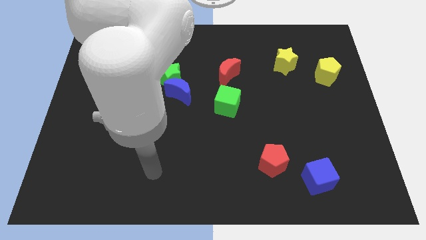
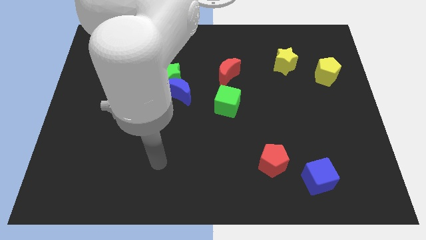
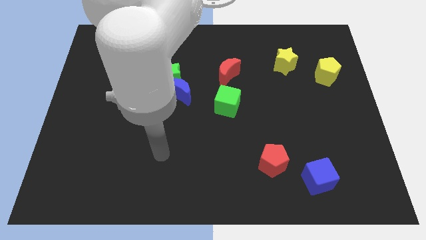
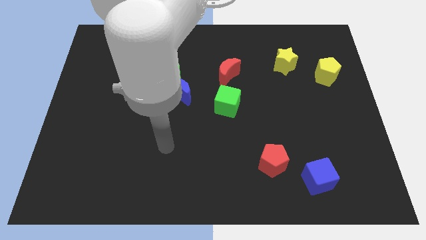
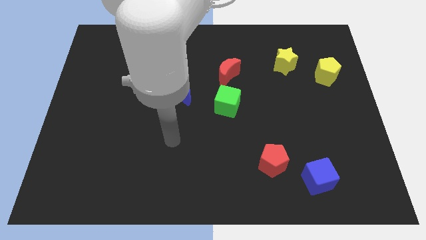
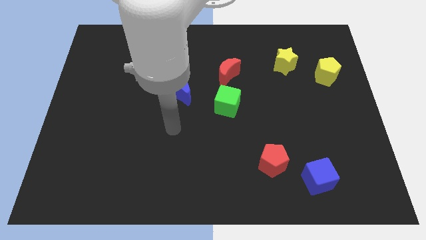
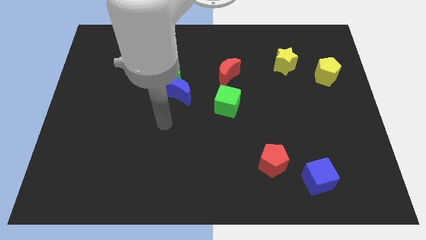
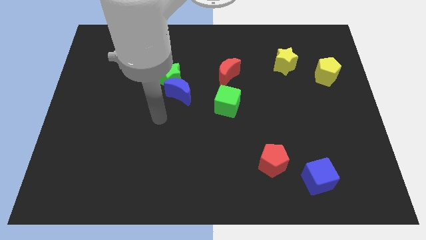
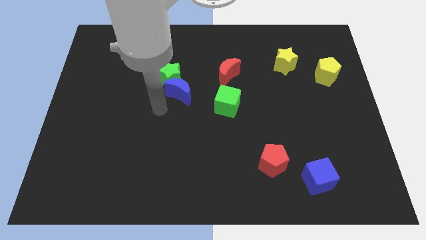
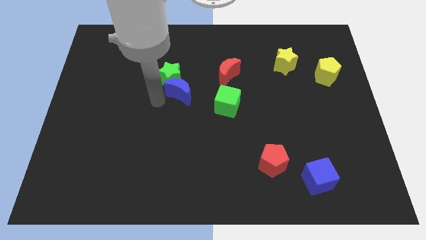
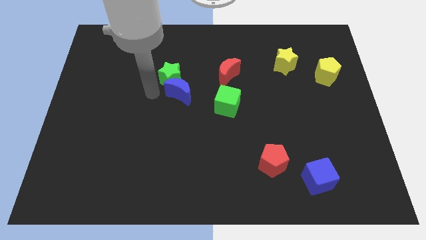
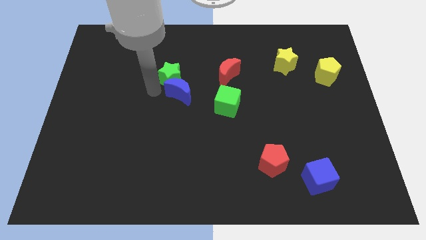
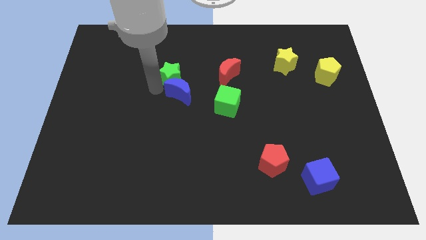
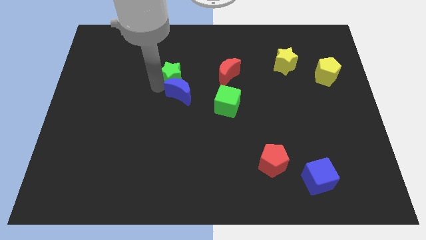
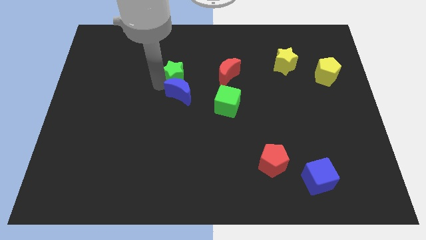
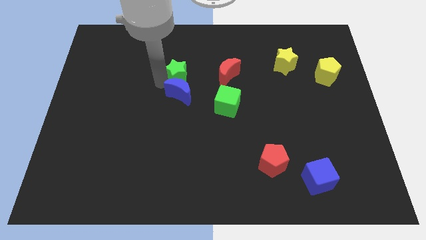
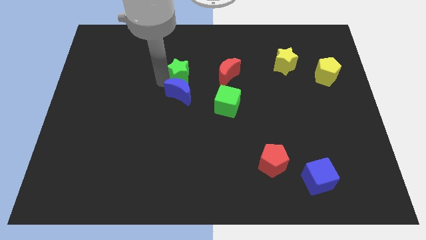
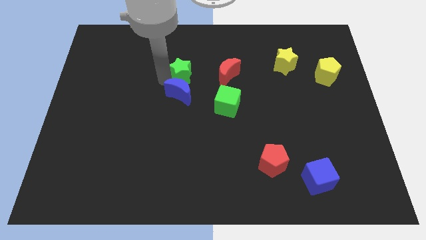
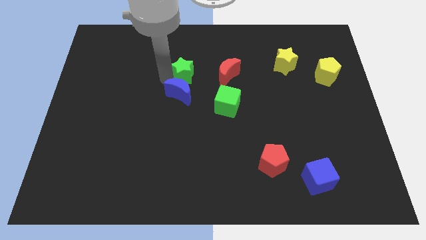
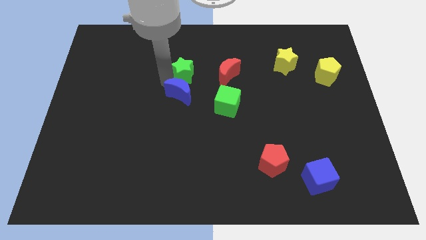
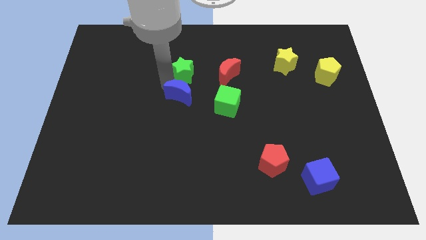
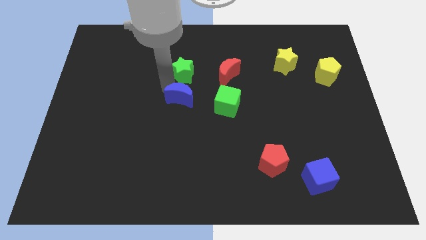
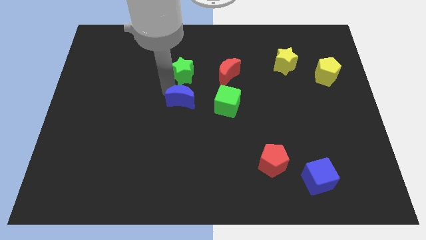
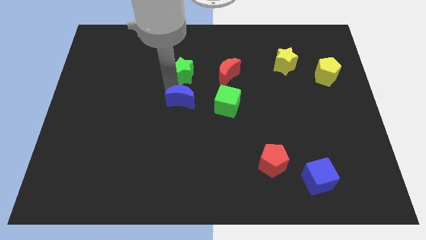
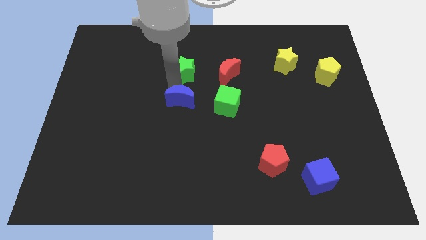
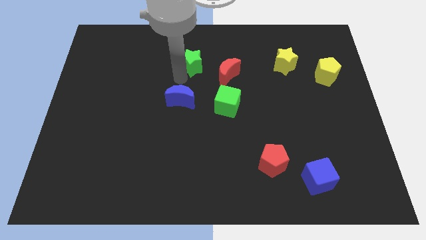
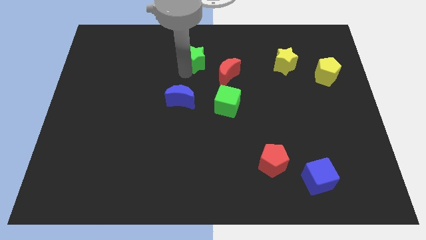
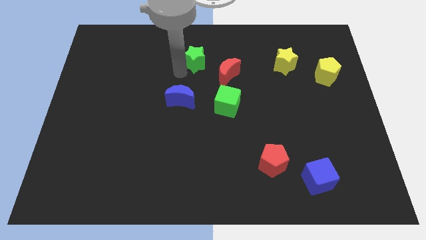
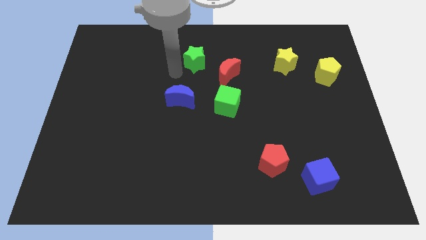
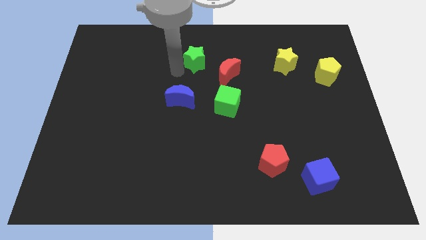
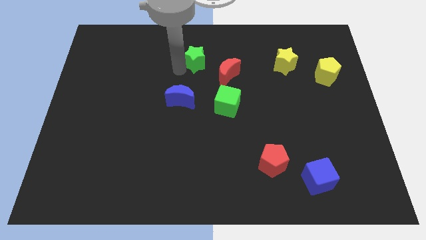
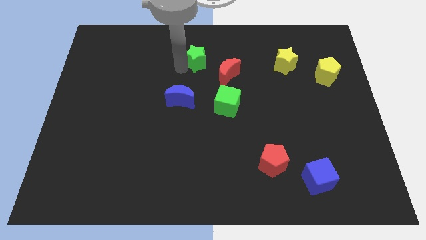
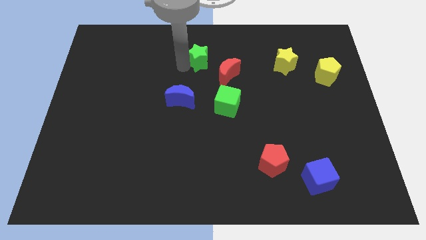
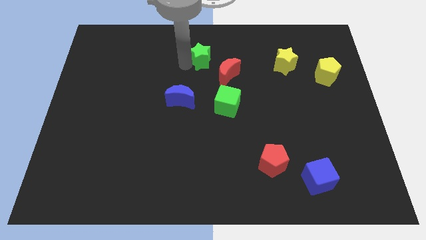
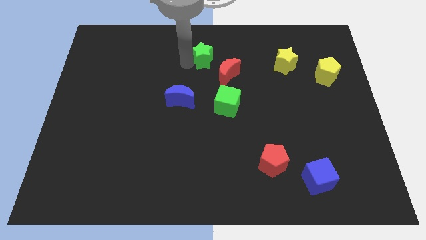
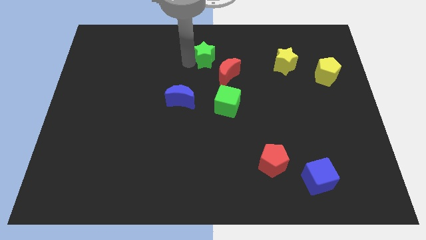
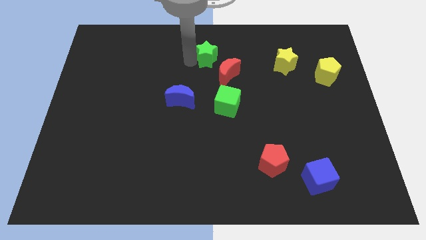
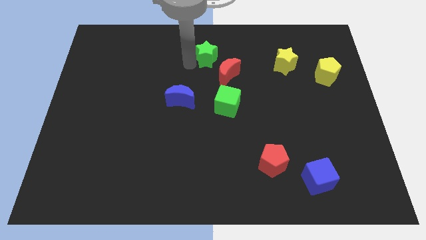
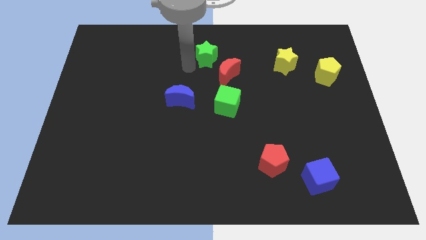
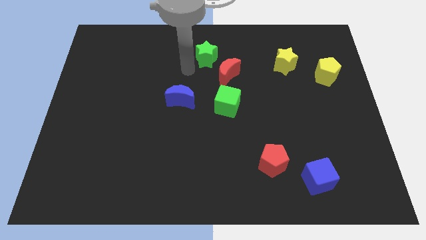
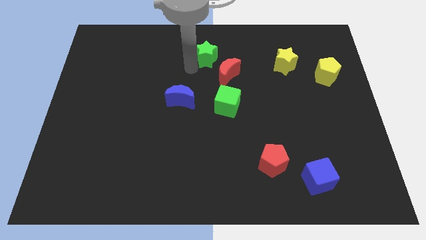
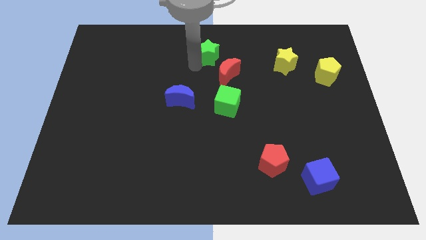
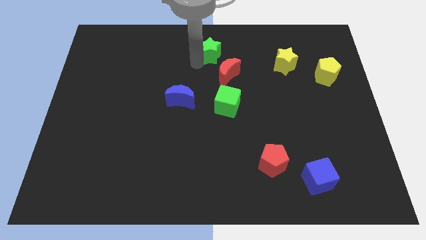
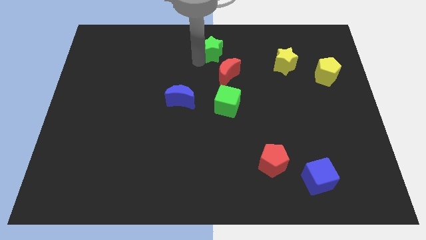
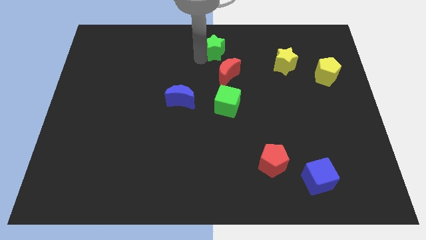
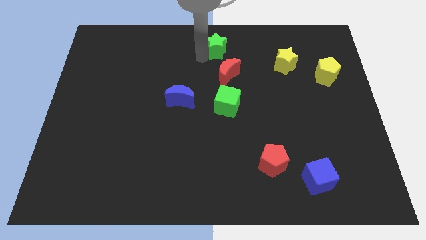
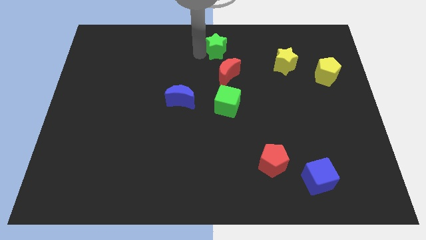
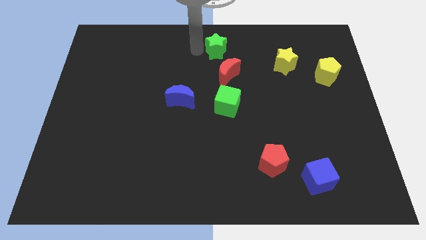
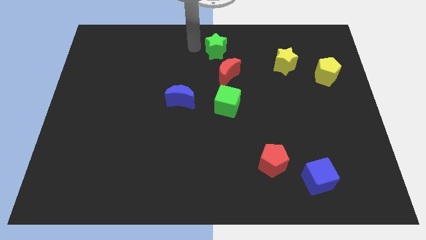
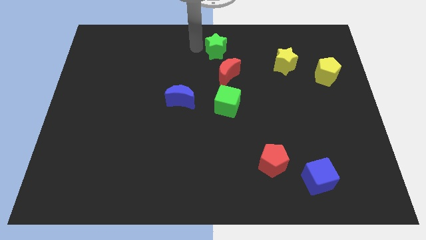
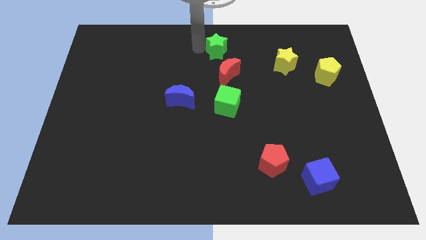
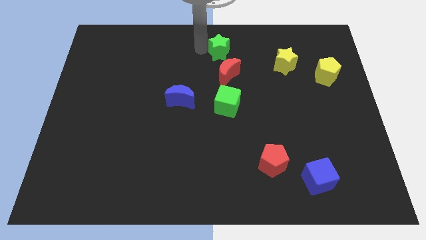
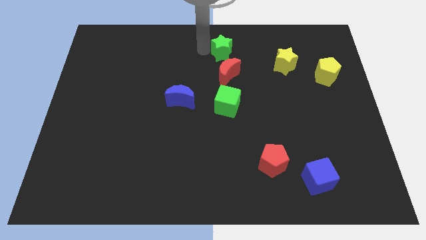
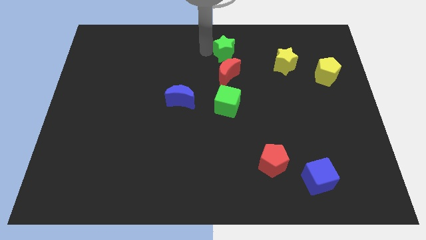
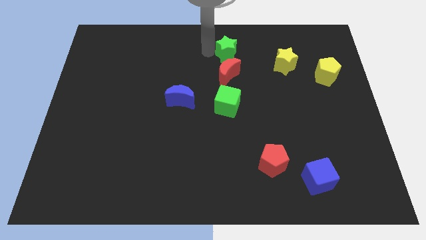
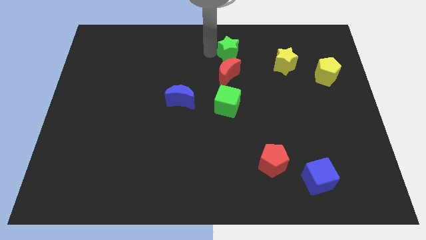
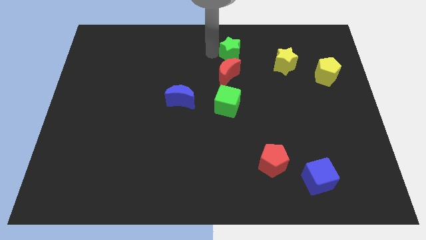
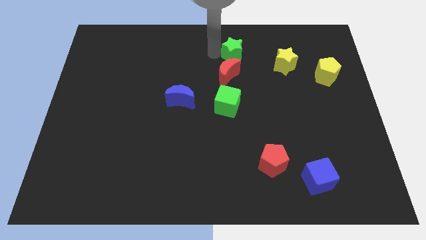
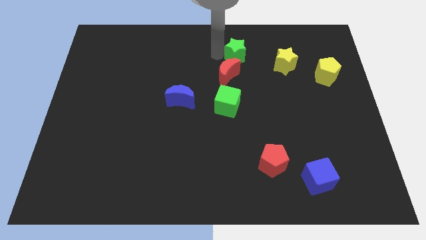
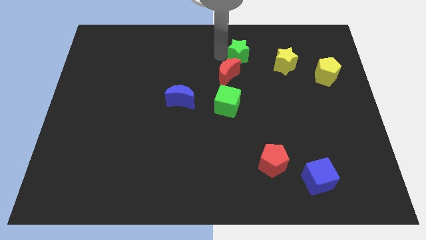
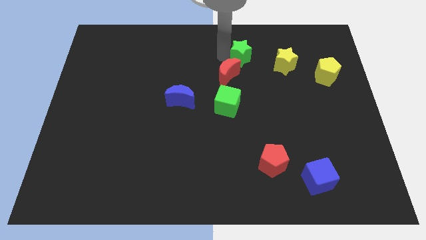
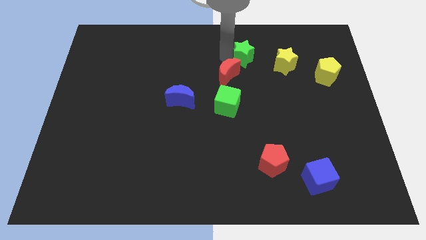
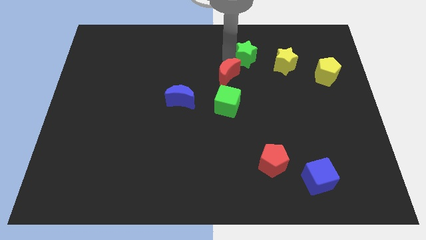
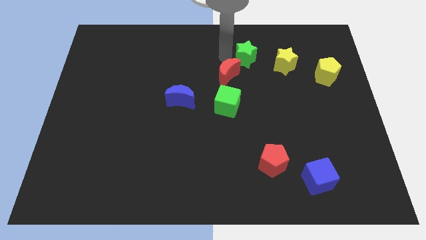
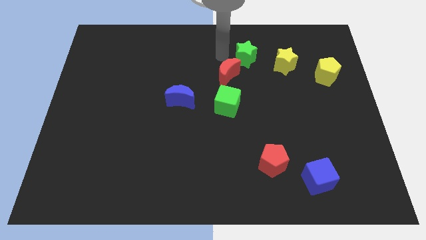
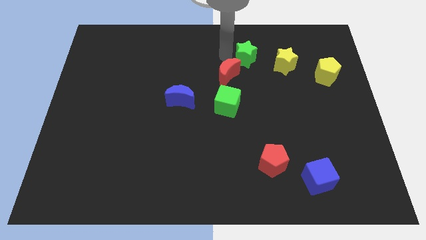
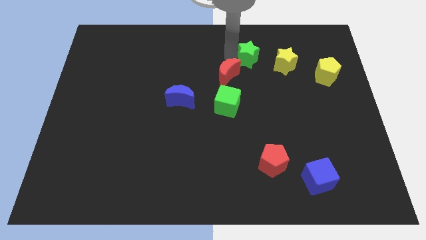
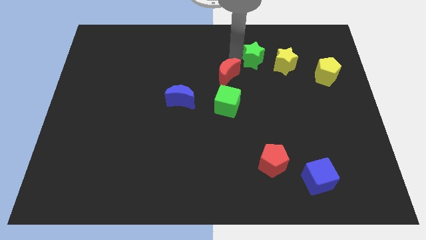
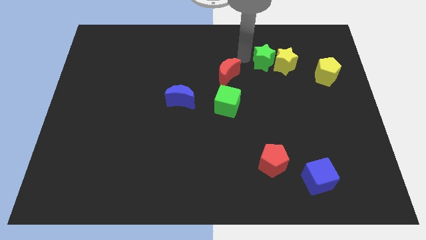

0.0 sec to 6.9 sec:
put the green star close to the yellow star
